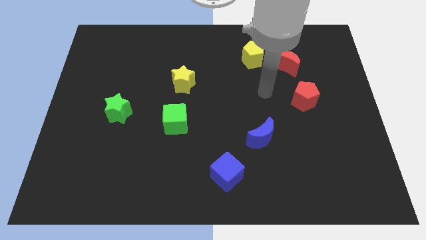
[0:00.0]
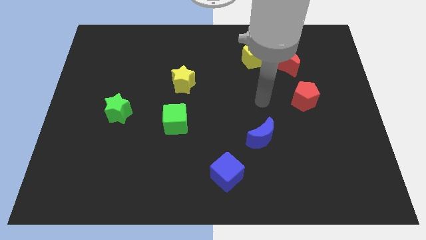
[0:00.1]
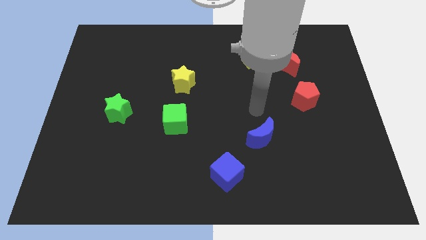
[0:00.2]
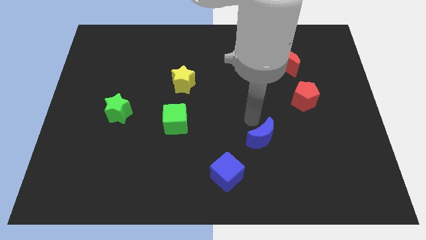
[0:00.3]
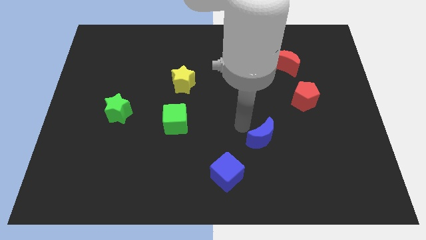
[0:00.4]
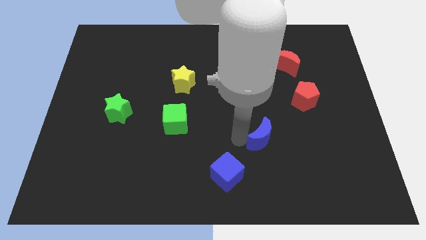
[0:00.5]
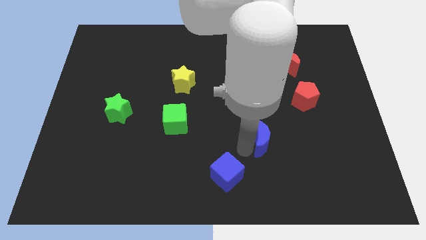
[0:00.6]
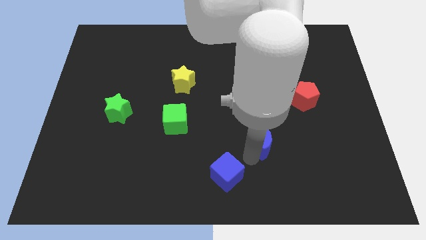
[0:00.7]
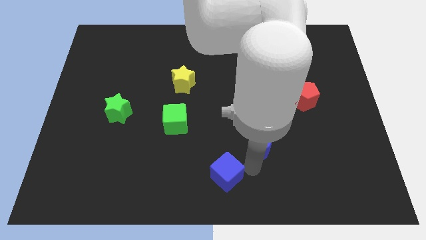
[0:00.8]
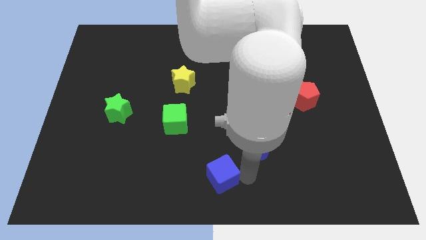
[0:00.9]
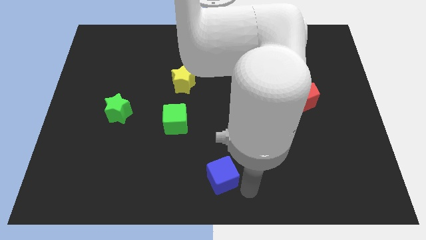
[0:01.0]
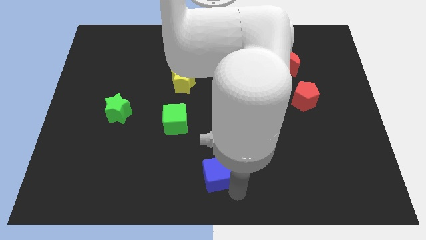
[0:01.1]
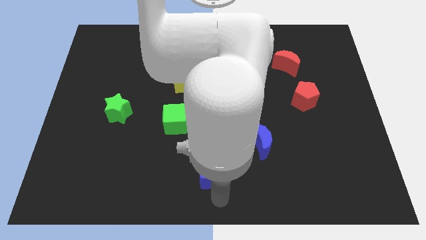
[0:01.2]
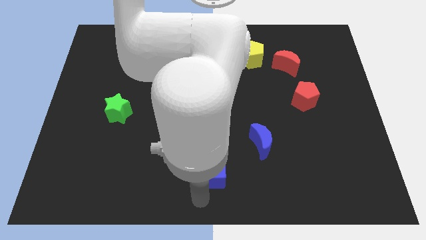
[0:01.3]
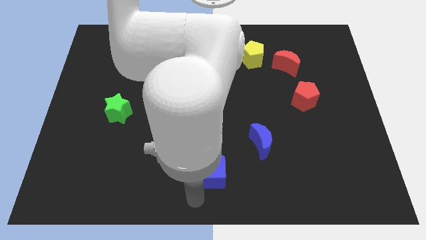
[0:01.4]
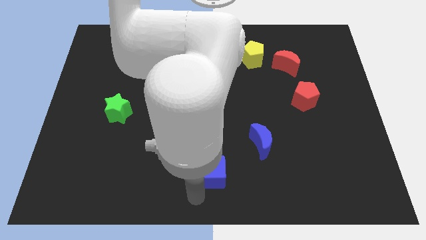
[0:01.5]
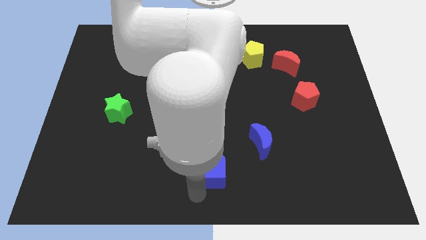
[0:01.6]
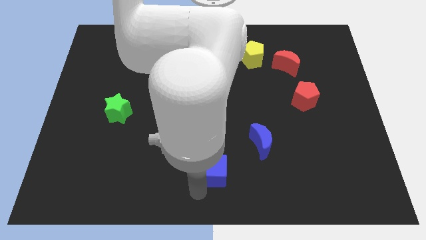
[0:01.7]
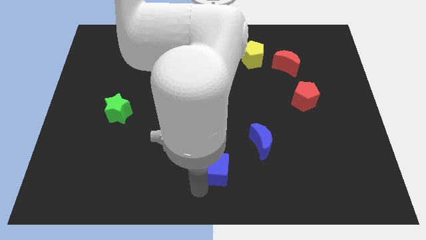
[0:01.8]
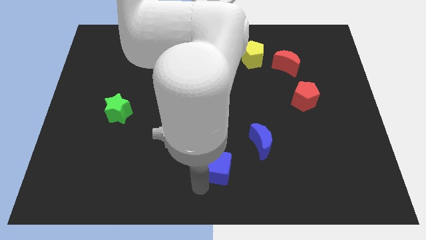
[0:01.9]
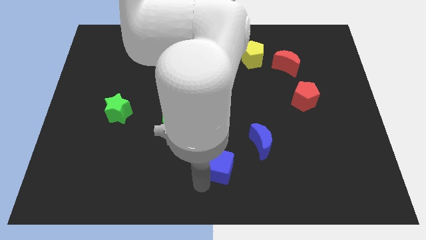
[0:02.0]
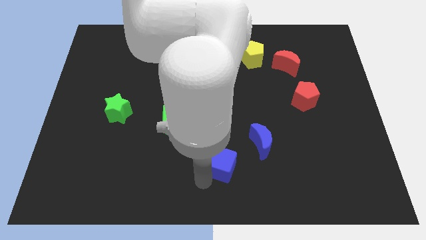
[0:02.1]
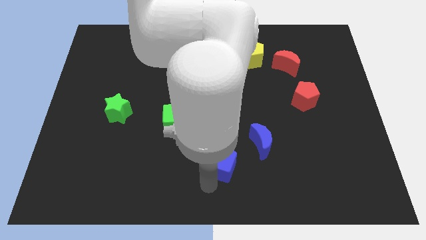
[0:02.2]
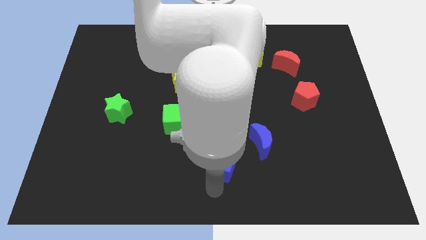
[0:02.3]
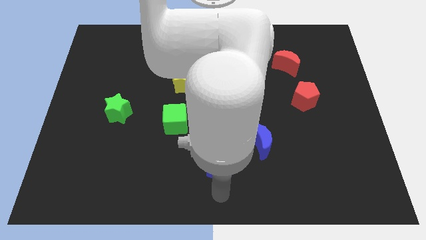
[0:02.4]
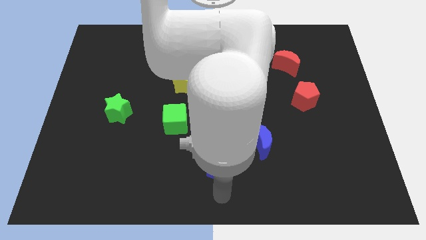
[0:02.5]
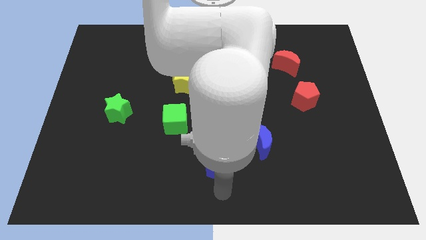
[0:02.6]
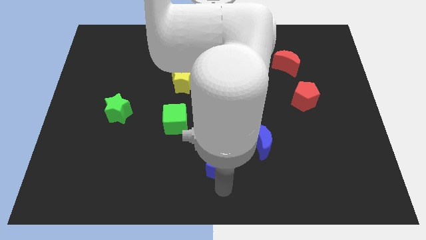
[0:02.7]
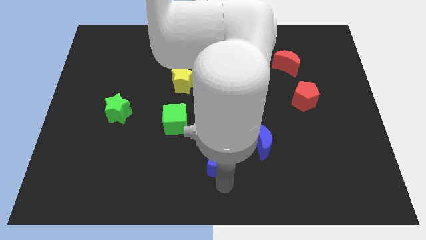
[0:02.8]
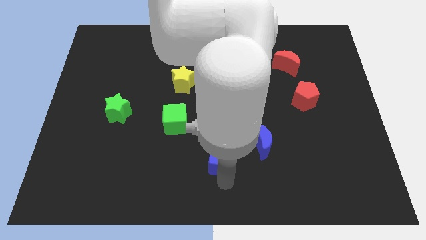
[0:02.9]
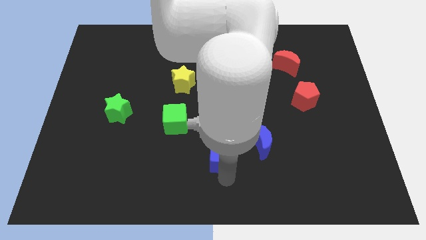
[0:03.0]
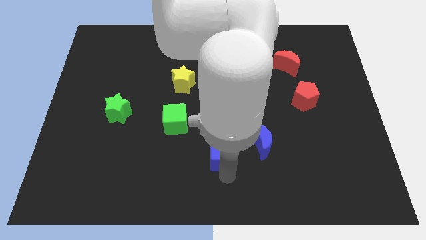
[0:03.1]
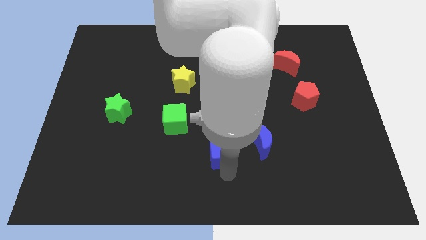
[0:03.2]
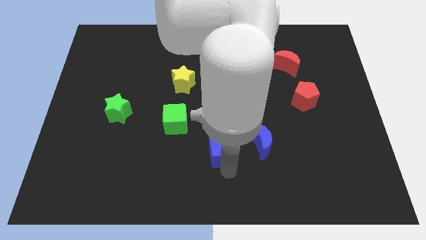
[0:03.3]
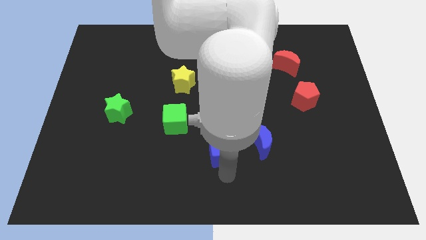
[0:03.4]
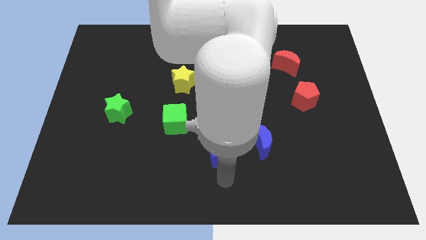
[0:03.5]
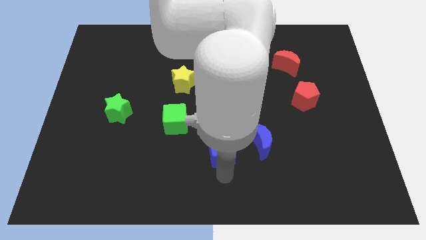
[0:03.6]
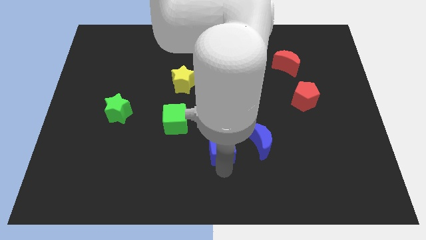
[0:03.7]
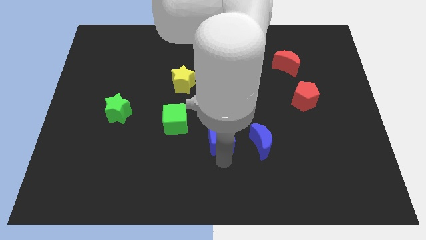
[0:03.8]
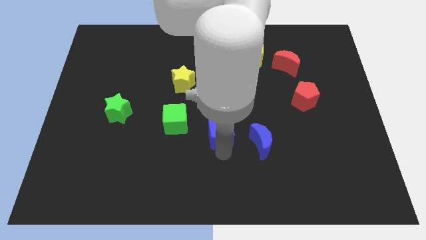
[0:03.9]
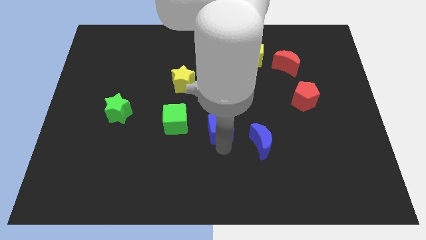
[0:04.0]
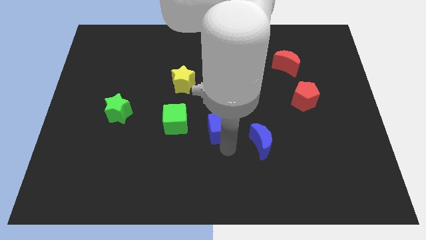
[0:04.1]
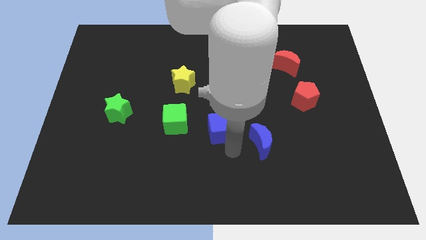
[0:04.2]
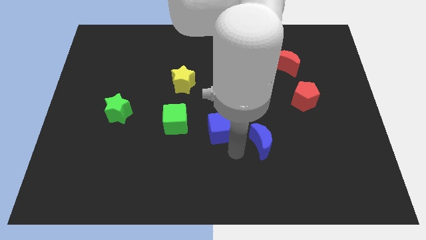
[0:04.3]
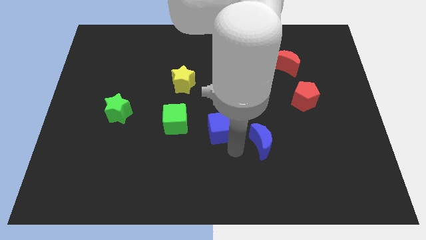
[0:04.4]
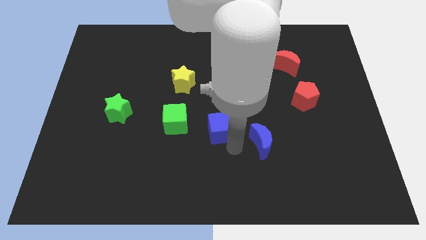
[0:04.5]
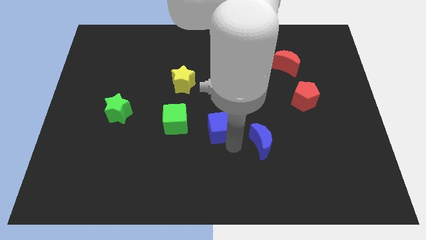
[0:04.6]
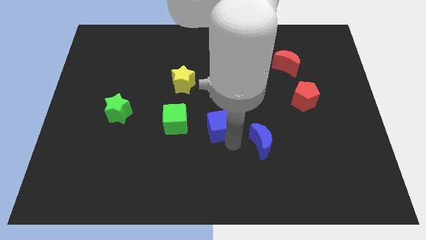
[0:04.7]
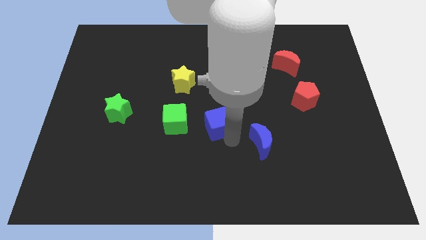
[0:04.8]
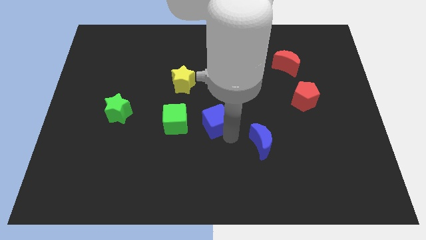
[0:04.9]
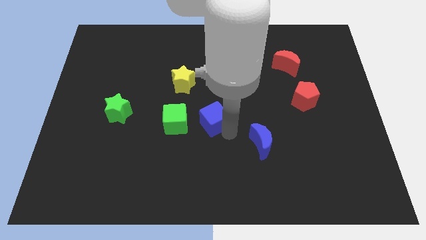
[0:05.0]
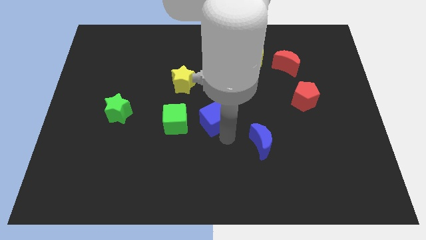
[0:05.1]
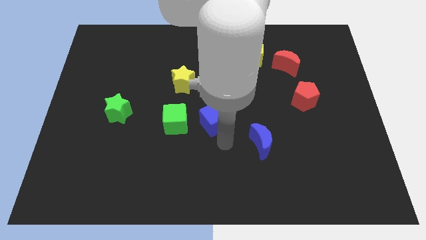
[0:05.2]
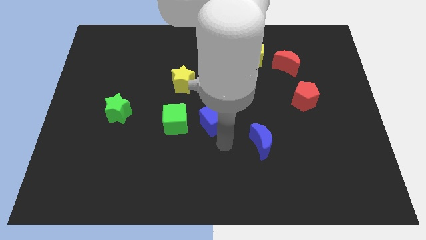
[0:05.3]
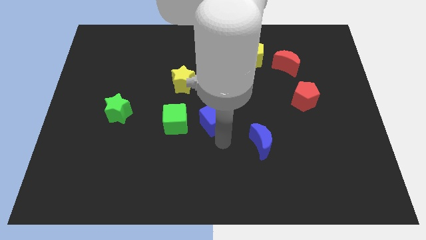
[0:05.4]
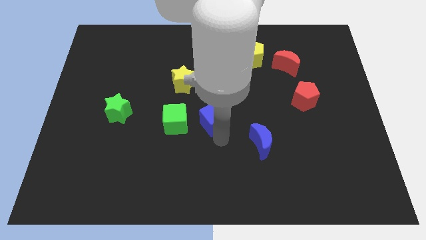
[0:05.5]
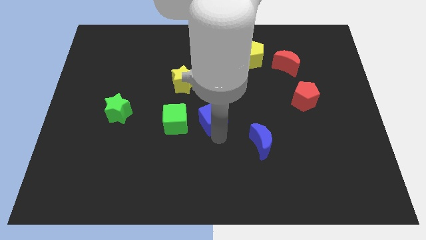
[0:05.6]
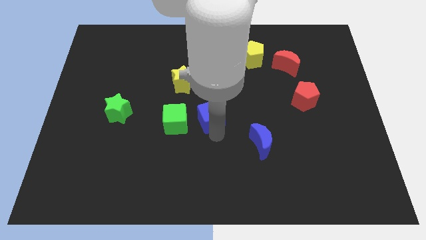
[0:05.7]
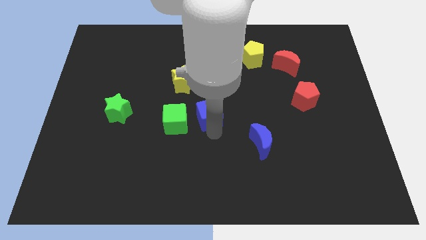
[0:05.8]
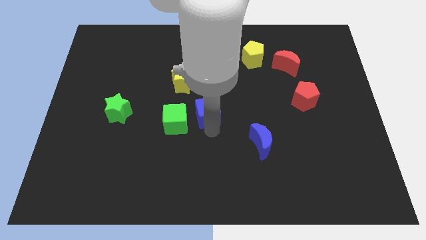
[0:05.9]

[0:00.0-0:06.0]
slide the blue cube to the bottom right side of the yellow star

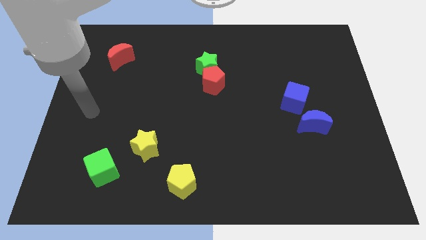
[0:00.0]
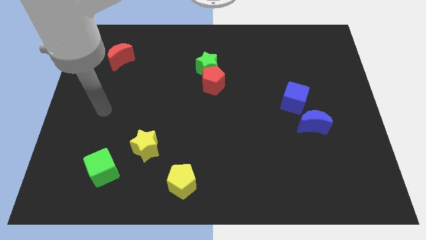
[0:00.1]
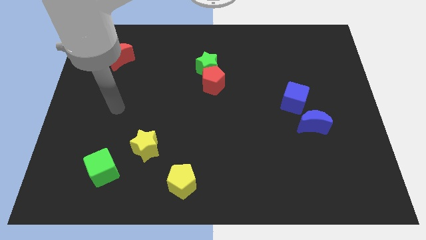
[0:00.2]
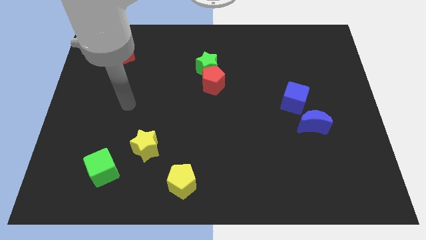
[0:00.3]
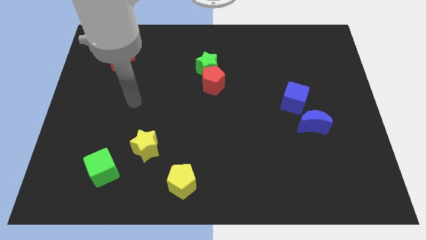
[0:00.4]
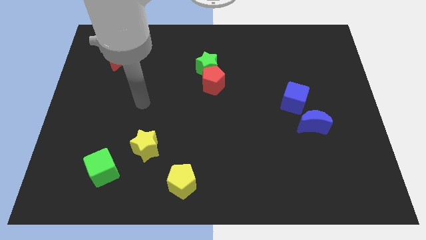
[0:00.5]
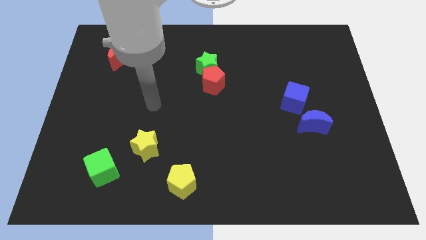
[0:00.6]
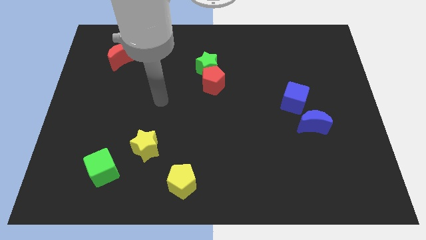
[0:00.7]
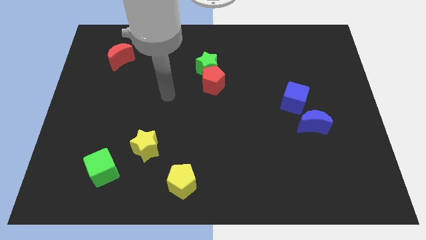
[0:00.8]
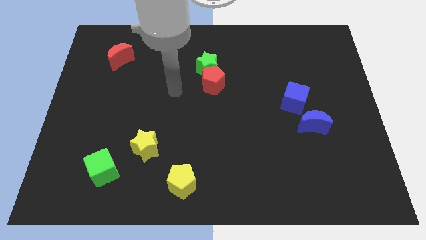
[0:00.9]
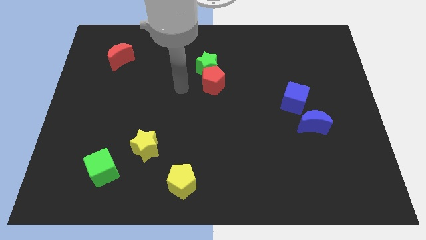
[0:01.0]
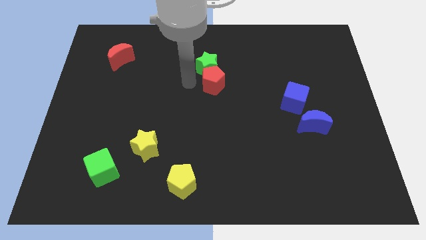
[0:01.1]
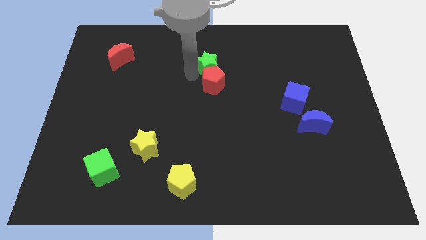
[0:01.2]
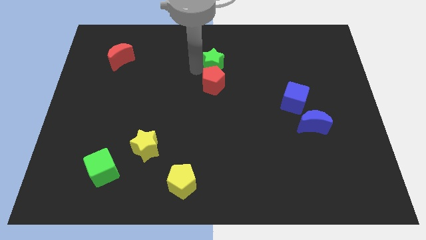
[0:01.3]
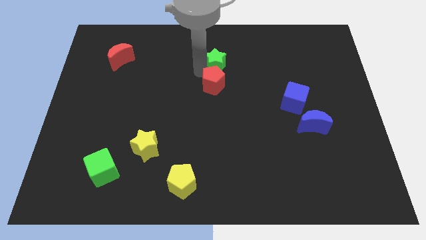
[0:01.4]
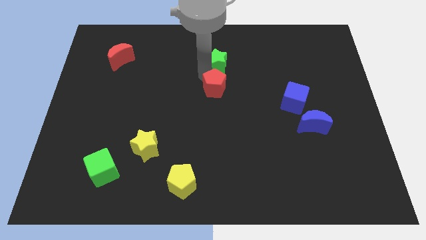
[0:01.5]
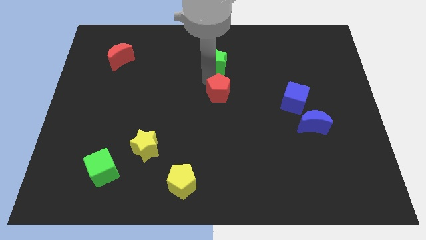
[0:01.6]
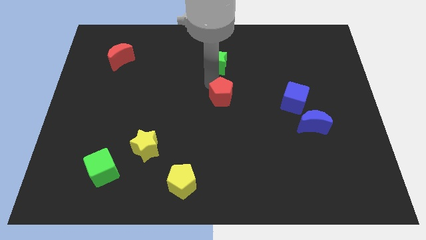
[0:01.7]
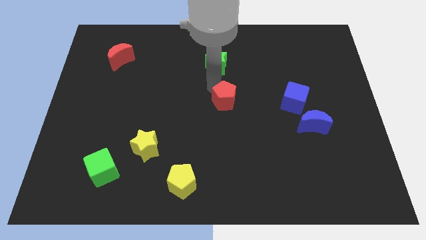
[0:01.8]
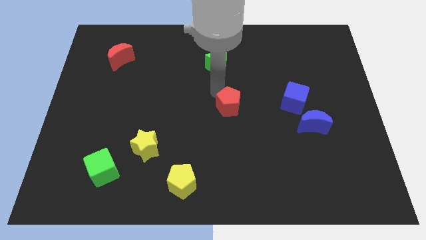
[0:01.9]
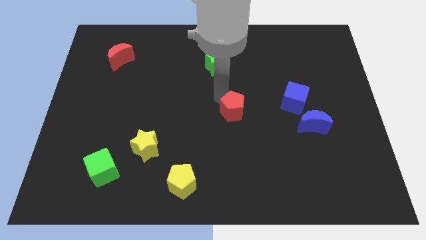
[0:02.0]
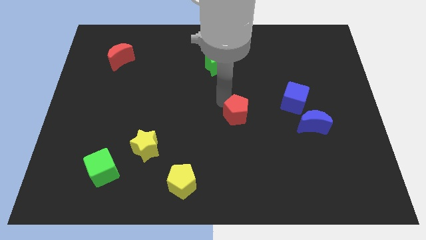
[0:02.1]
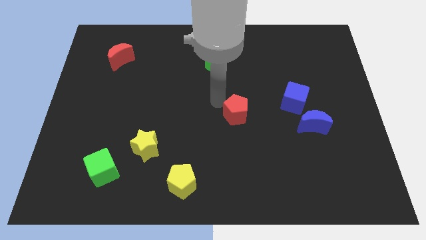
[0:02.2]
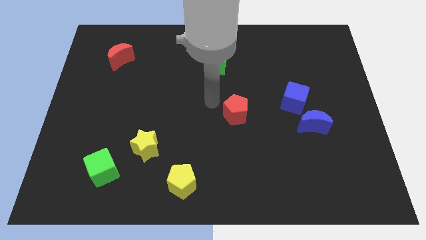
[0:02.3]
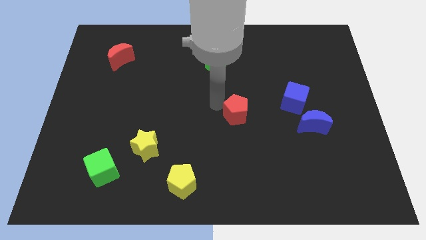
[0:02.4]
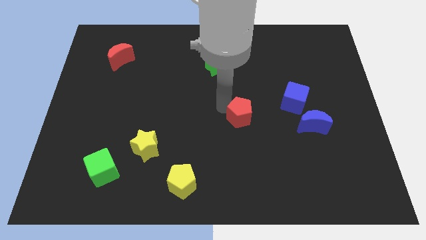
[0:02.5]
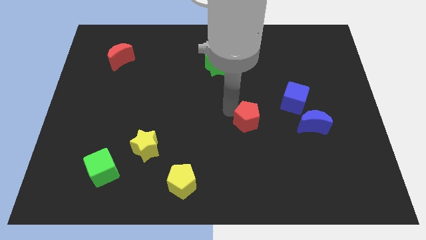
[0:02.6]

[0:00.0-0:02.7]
put the red pentagon left of the blue moon
